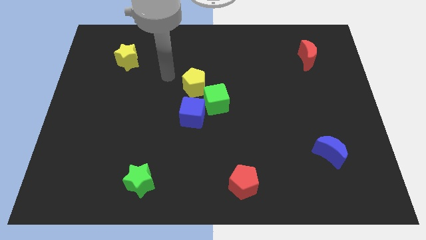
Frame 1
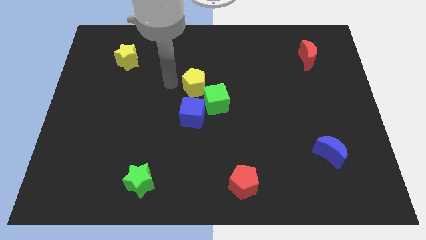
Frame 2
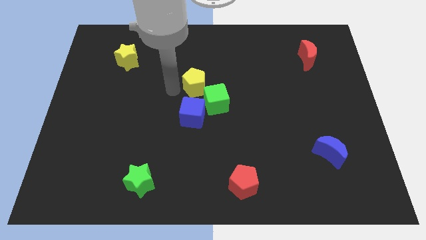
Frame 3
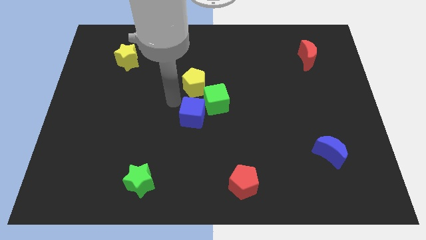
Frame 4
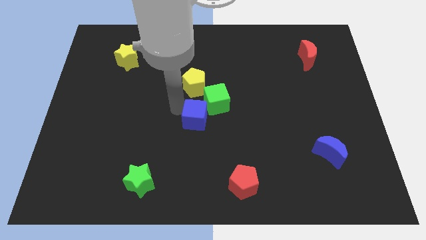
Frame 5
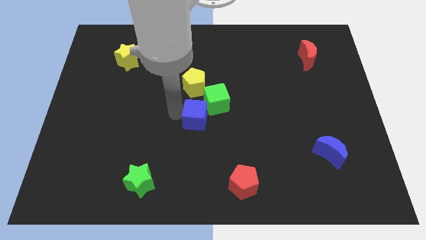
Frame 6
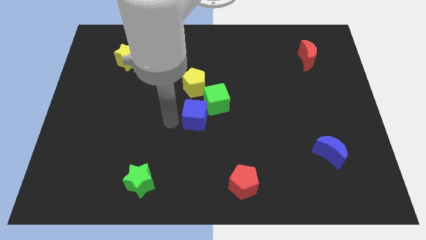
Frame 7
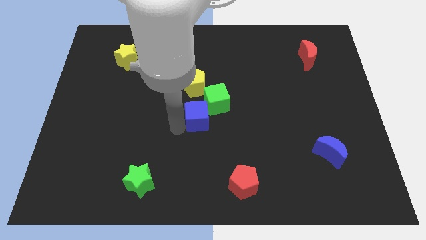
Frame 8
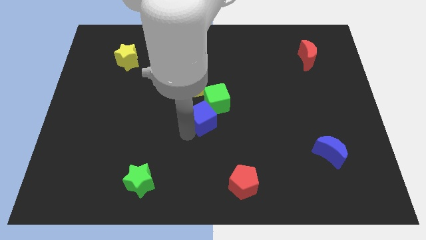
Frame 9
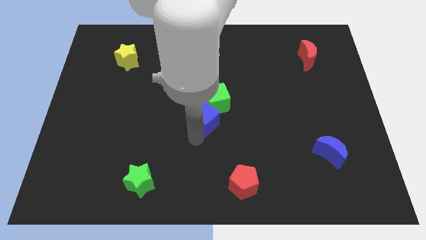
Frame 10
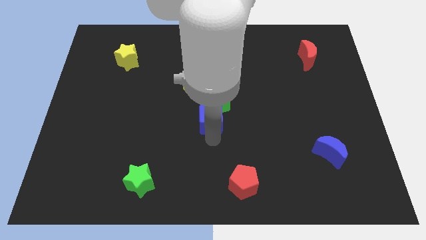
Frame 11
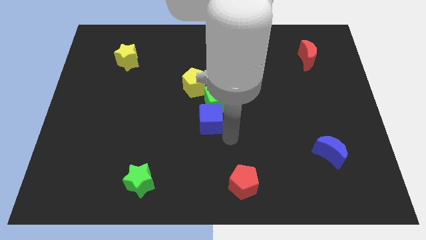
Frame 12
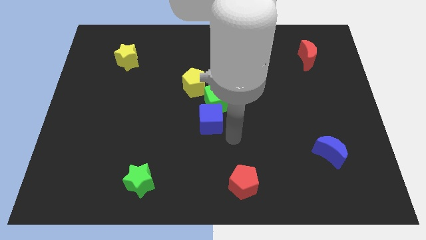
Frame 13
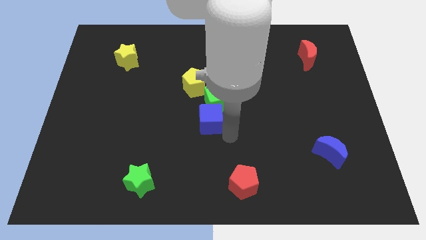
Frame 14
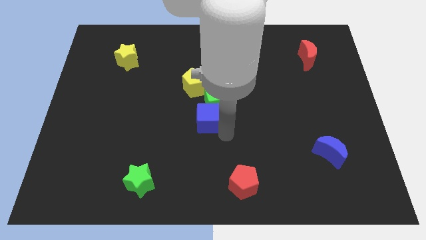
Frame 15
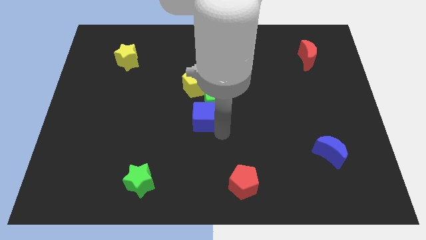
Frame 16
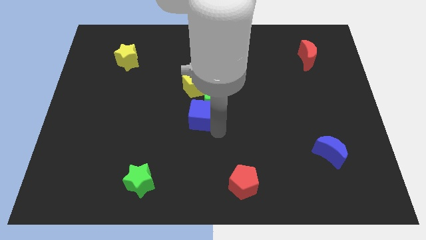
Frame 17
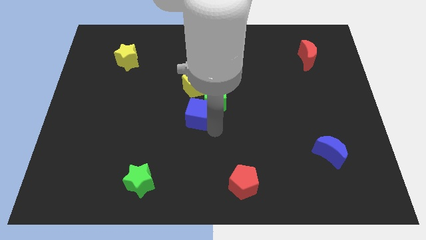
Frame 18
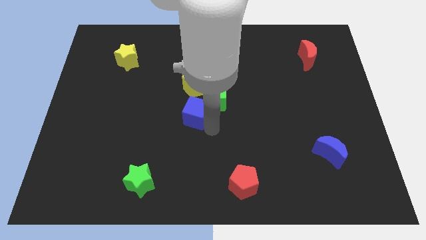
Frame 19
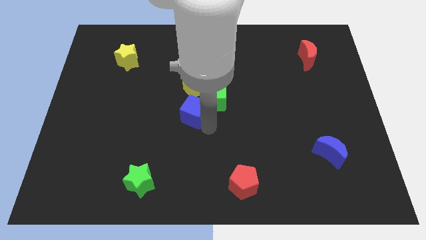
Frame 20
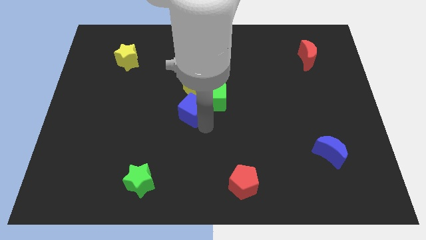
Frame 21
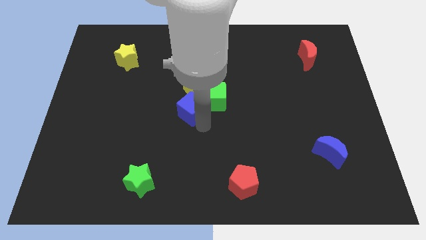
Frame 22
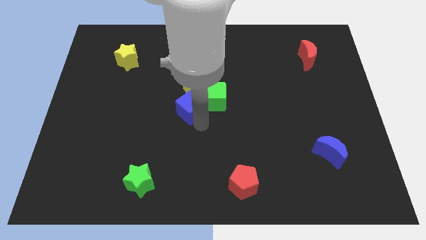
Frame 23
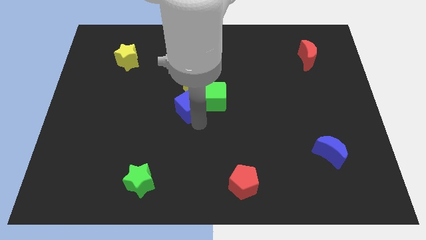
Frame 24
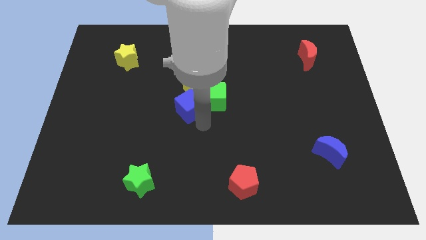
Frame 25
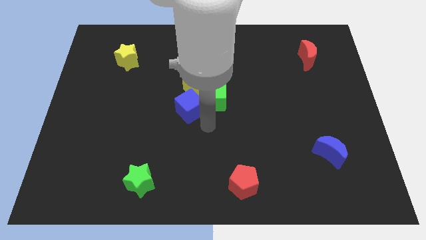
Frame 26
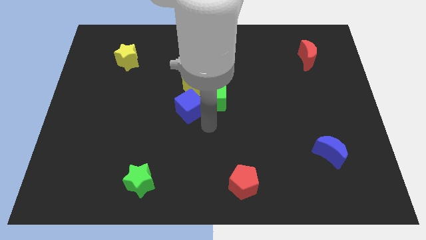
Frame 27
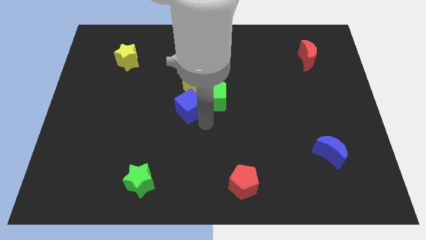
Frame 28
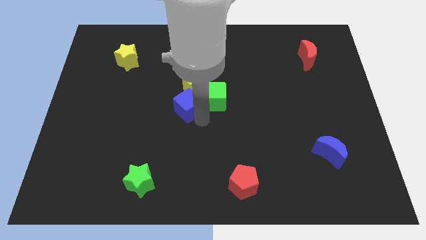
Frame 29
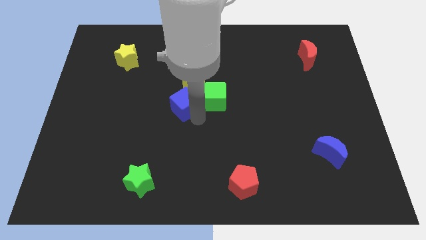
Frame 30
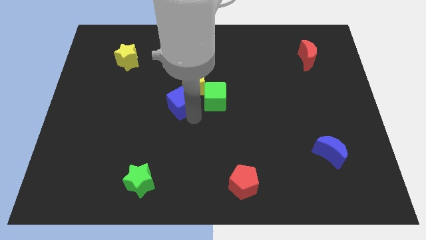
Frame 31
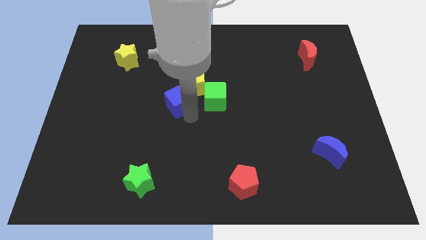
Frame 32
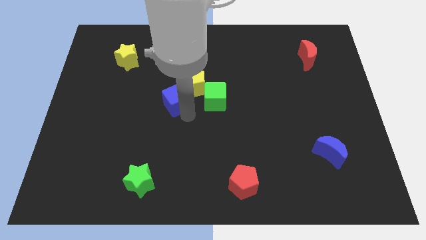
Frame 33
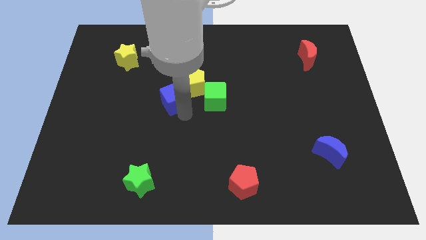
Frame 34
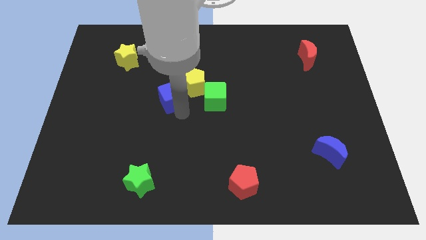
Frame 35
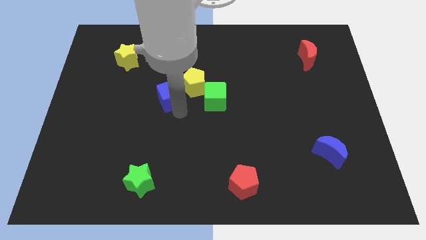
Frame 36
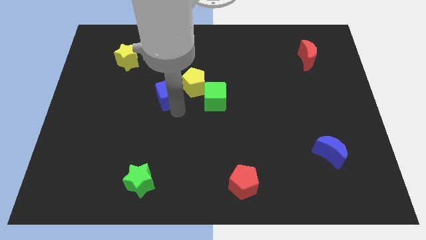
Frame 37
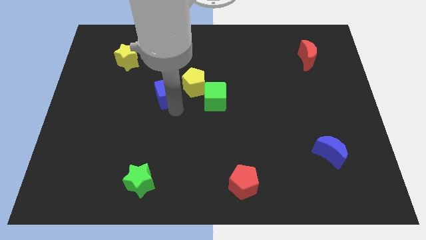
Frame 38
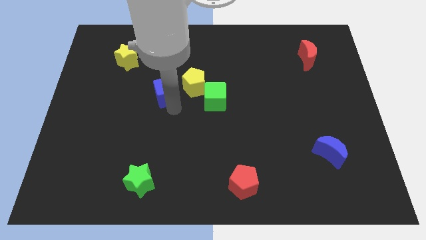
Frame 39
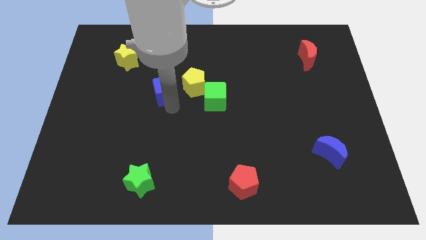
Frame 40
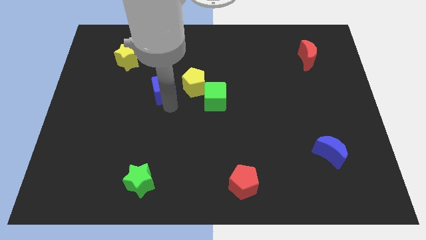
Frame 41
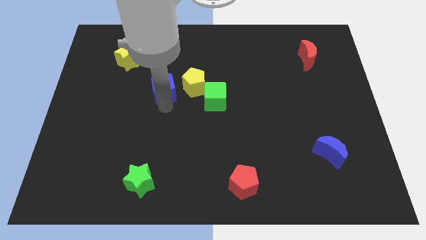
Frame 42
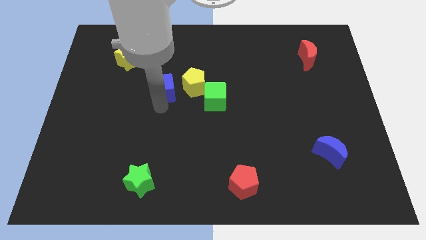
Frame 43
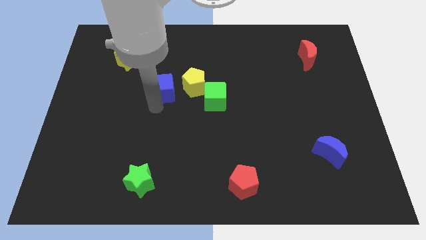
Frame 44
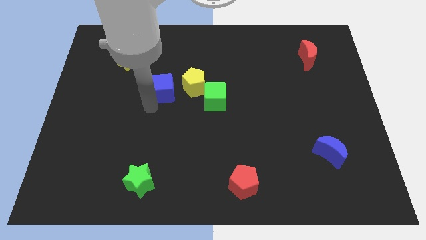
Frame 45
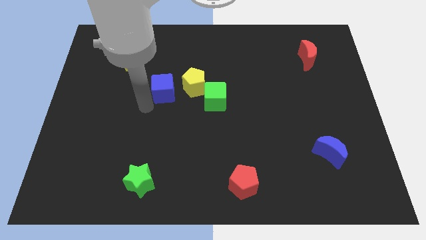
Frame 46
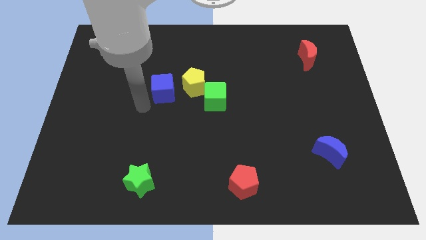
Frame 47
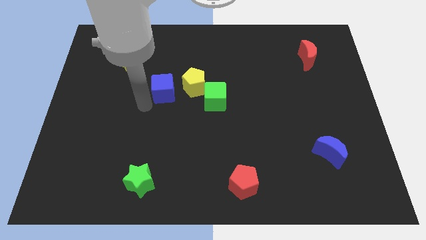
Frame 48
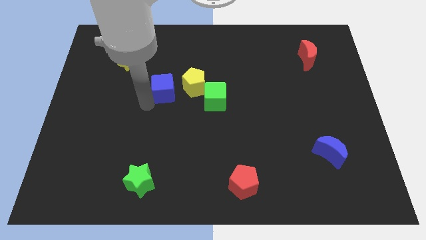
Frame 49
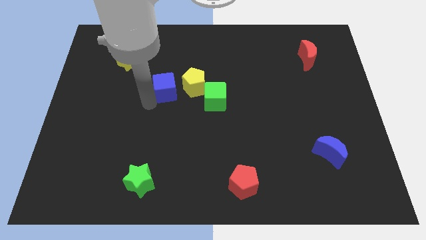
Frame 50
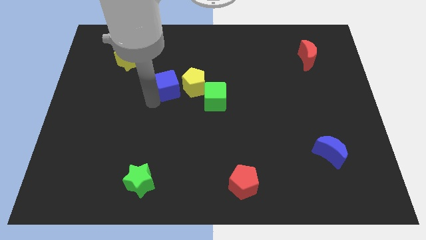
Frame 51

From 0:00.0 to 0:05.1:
slightly move the blue cube upwards

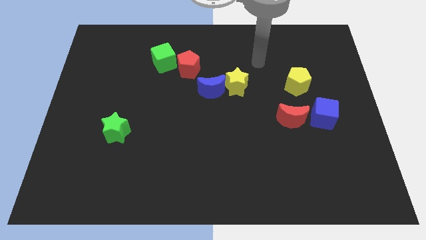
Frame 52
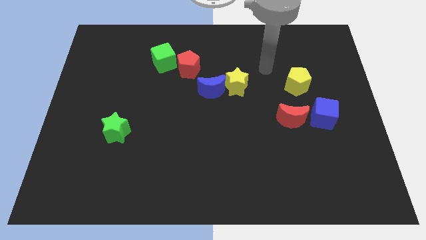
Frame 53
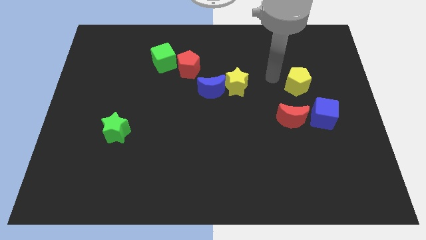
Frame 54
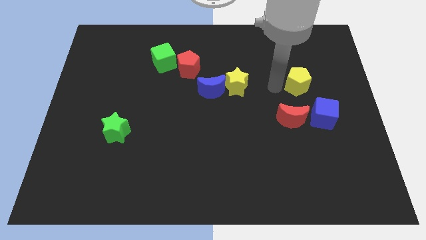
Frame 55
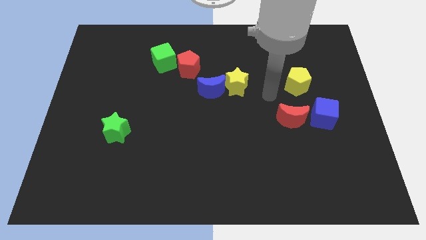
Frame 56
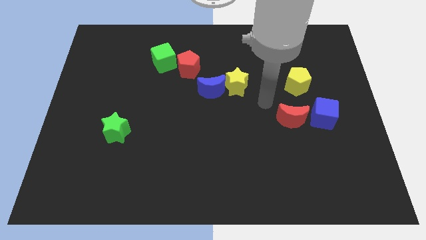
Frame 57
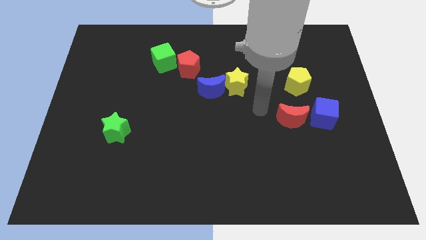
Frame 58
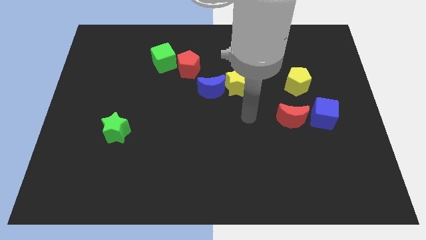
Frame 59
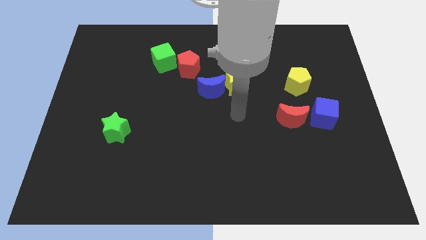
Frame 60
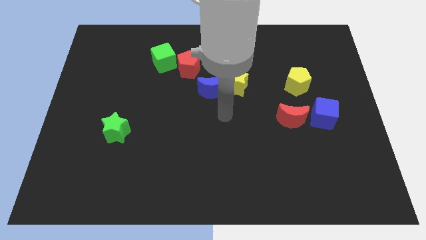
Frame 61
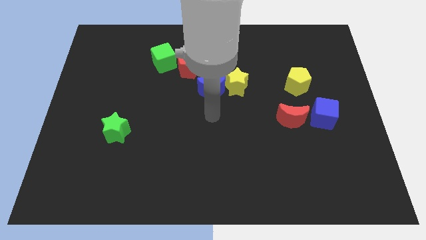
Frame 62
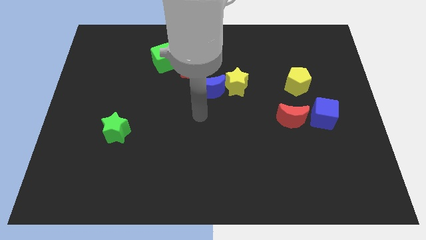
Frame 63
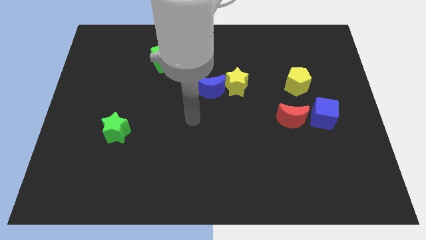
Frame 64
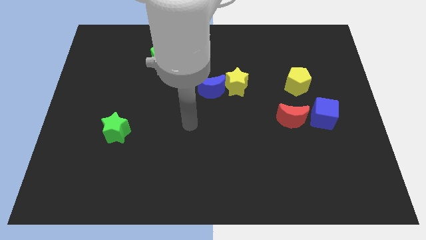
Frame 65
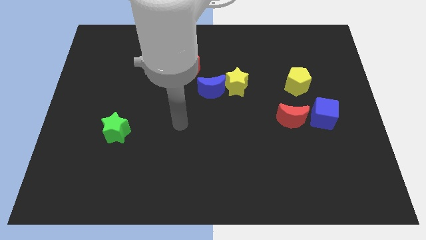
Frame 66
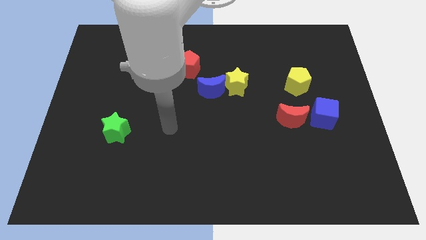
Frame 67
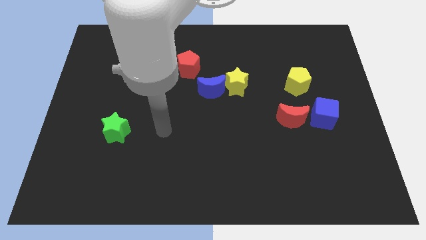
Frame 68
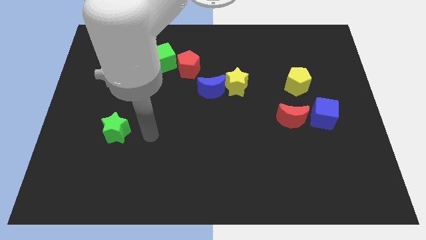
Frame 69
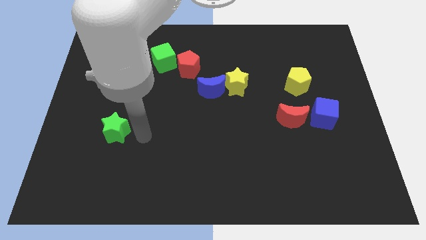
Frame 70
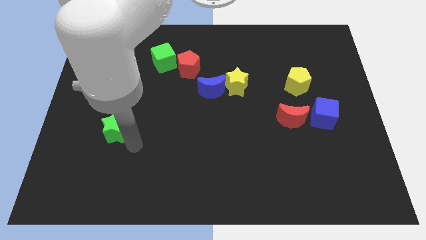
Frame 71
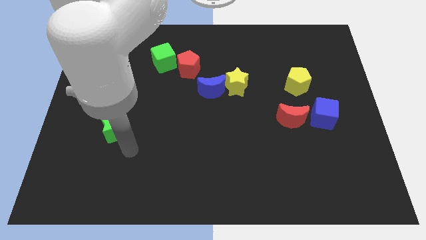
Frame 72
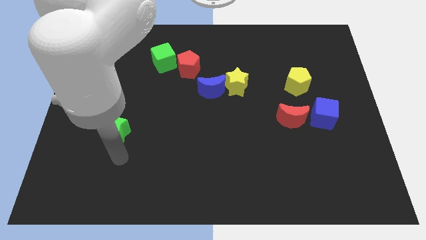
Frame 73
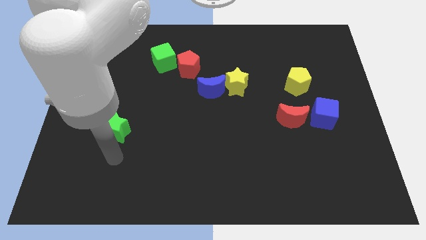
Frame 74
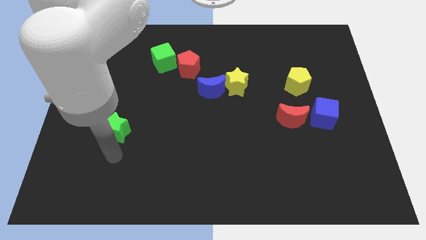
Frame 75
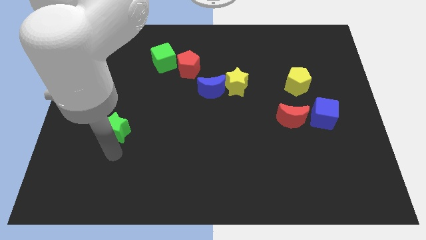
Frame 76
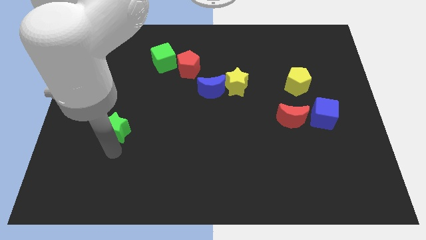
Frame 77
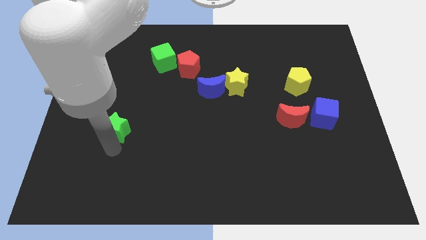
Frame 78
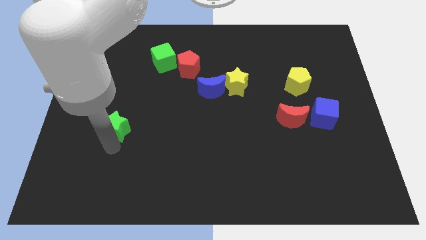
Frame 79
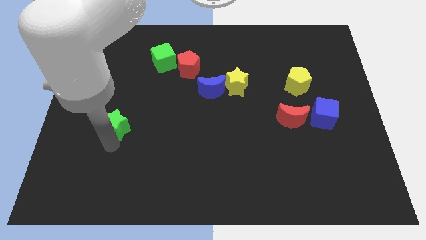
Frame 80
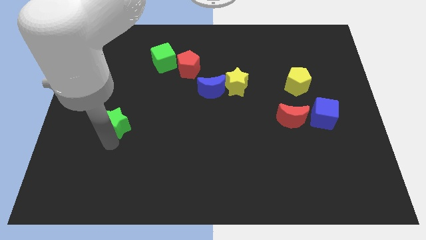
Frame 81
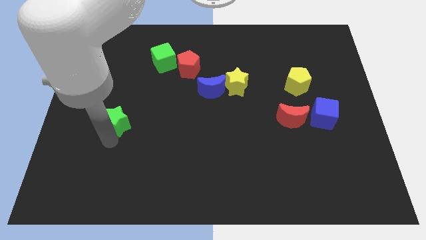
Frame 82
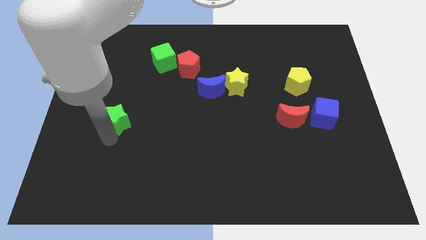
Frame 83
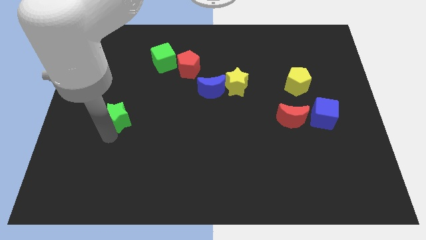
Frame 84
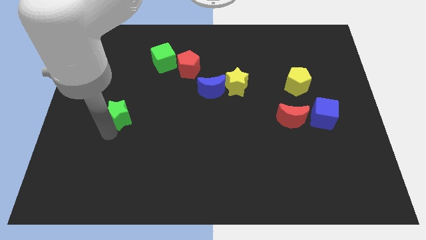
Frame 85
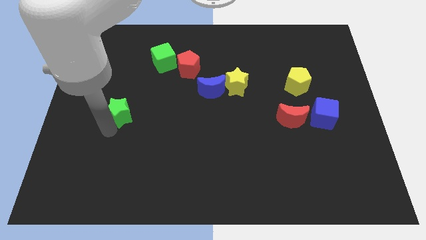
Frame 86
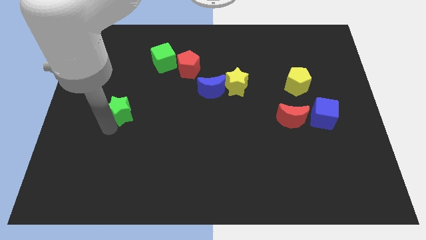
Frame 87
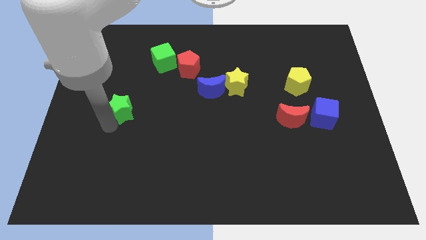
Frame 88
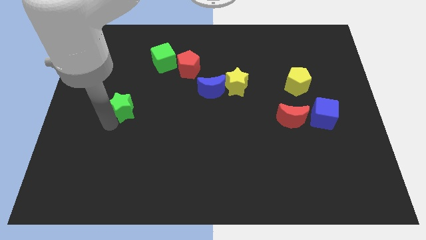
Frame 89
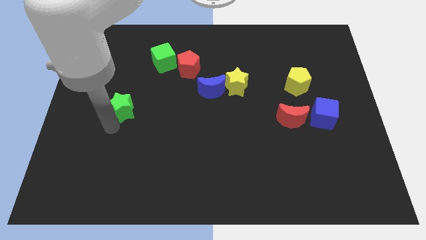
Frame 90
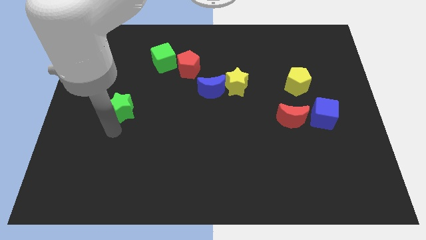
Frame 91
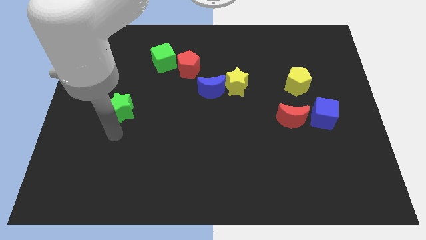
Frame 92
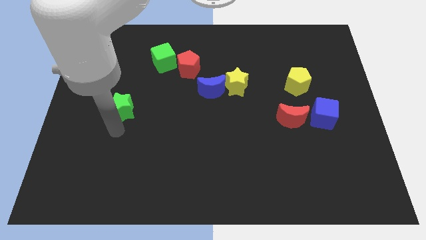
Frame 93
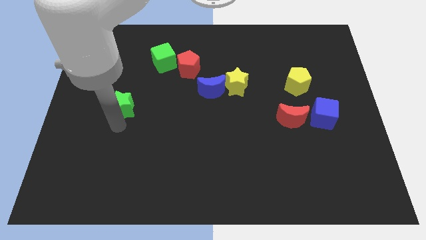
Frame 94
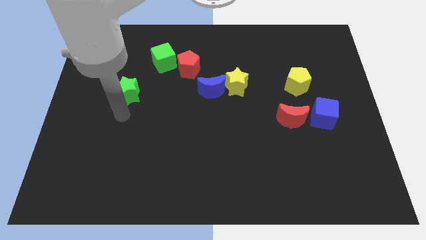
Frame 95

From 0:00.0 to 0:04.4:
slightly slide the green star upwards
